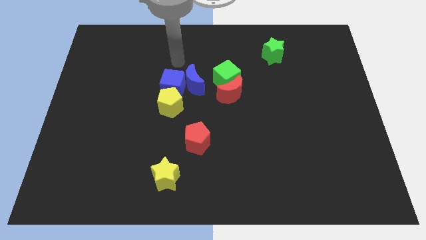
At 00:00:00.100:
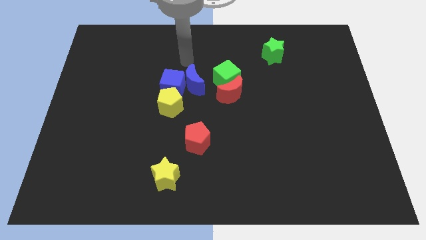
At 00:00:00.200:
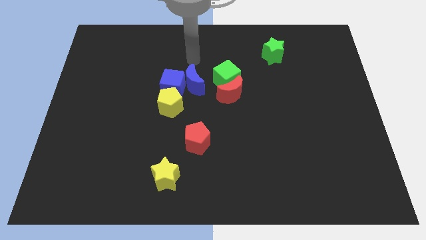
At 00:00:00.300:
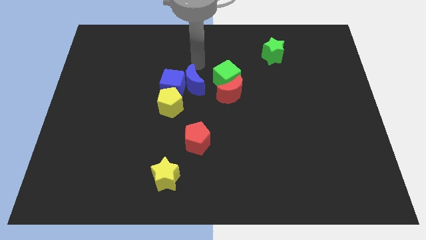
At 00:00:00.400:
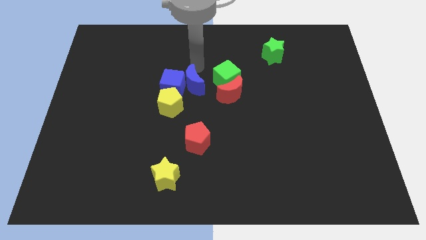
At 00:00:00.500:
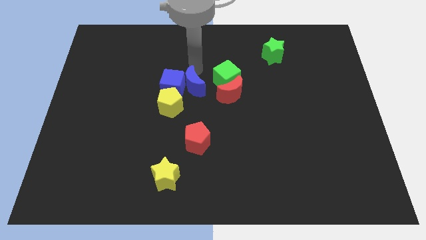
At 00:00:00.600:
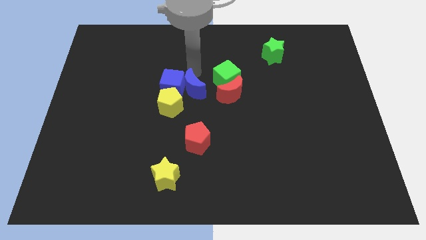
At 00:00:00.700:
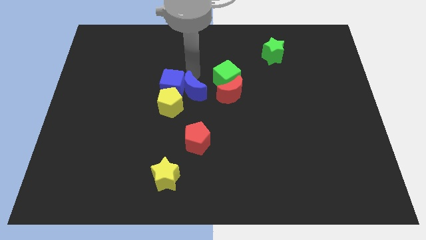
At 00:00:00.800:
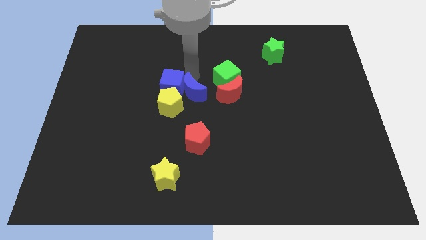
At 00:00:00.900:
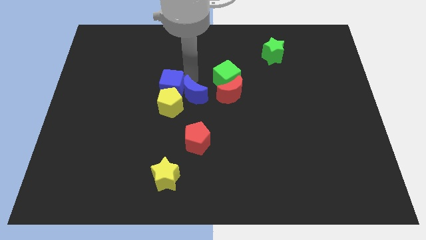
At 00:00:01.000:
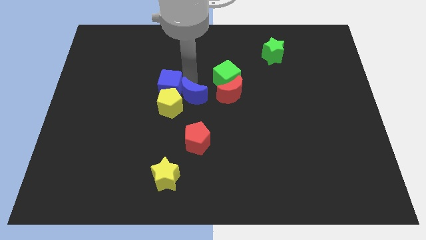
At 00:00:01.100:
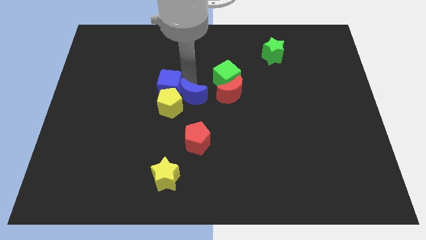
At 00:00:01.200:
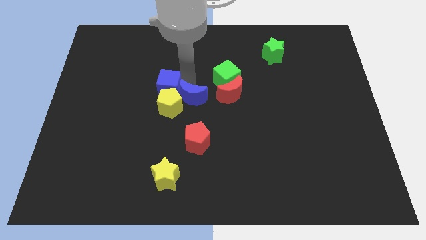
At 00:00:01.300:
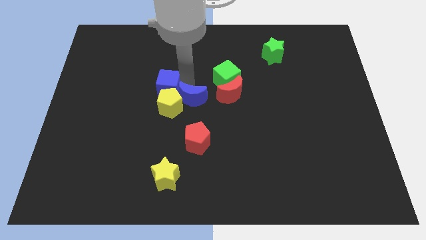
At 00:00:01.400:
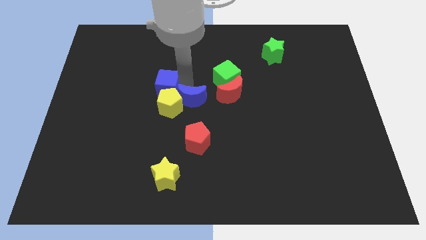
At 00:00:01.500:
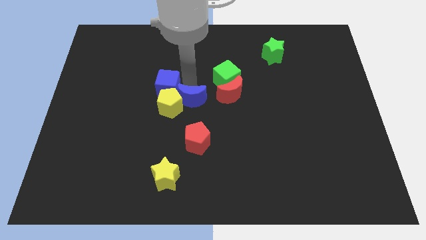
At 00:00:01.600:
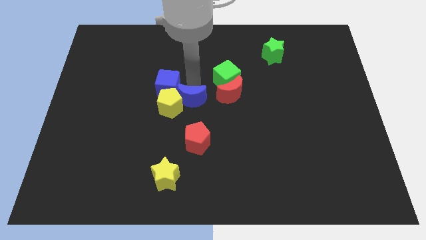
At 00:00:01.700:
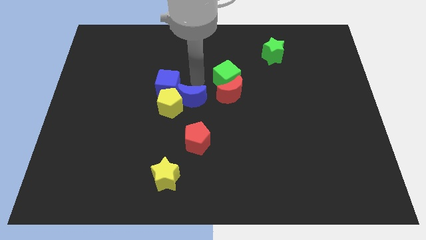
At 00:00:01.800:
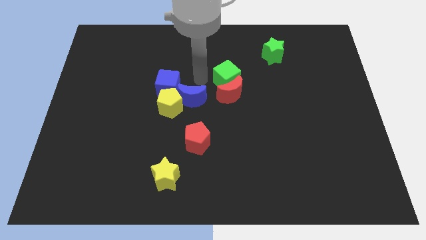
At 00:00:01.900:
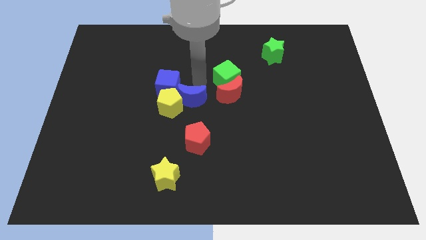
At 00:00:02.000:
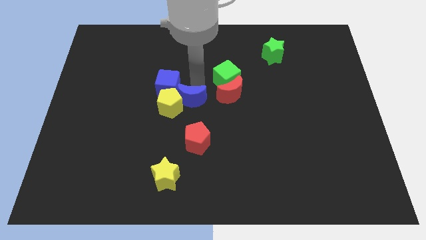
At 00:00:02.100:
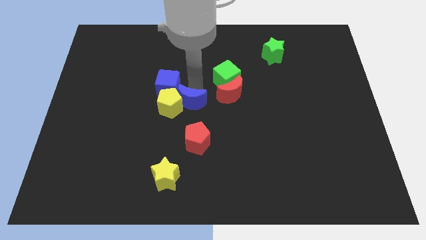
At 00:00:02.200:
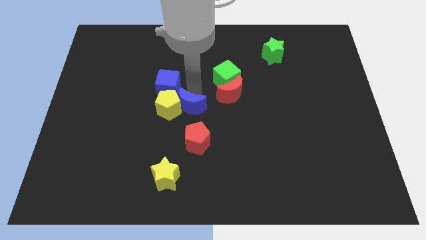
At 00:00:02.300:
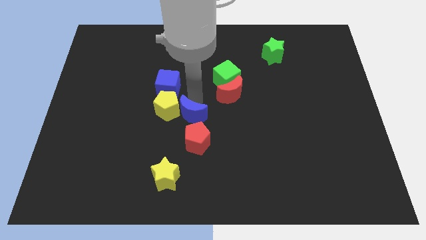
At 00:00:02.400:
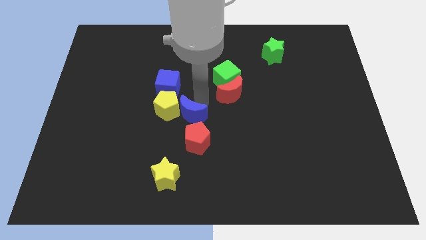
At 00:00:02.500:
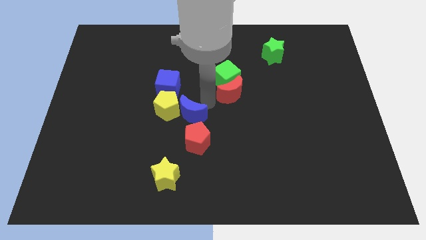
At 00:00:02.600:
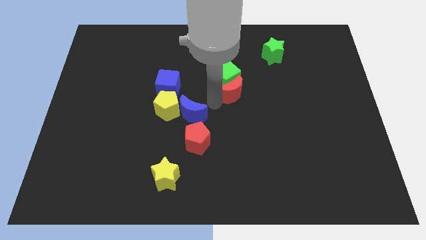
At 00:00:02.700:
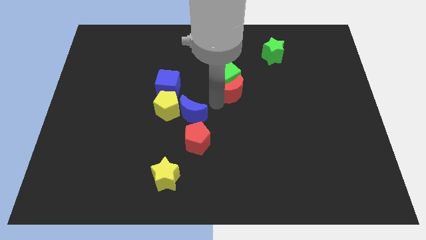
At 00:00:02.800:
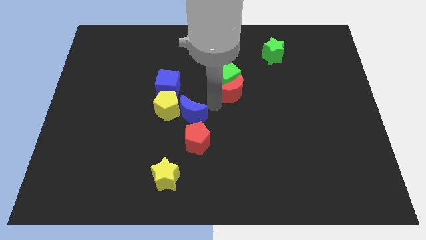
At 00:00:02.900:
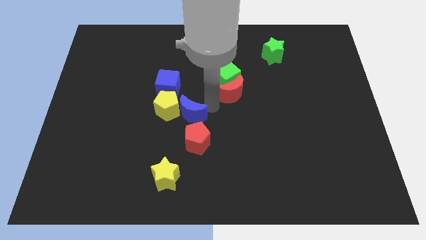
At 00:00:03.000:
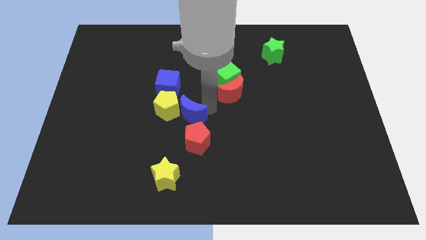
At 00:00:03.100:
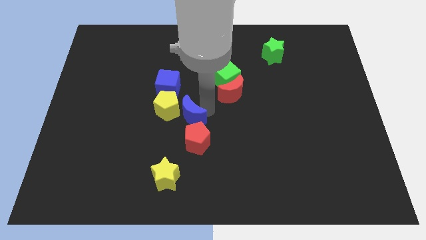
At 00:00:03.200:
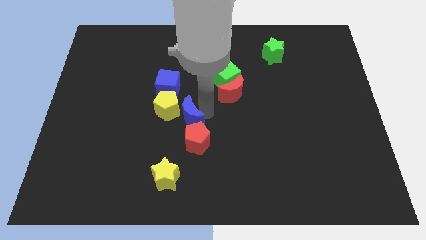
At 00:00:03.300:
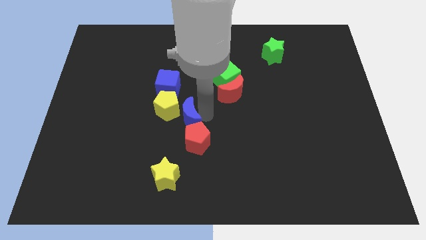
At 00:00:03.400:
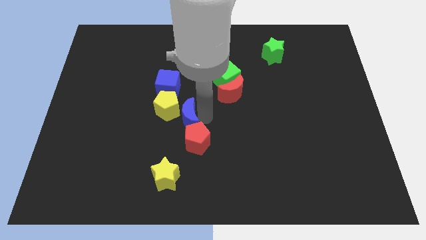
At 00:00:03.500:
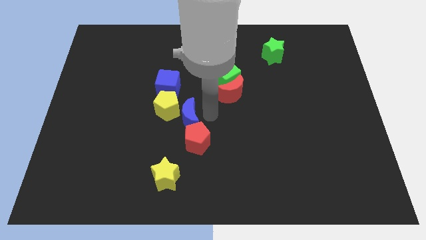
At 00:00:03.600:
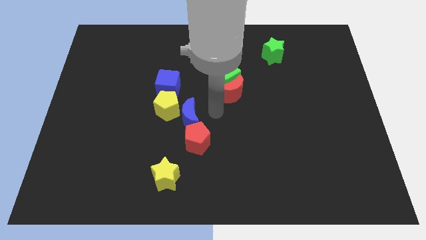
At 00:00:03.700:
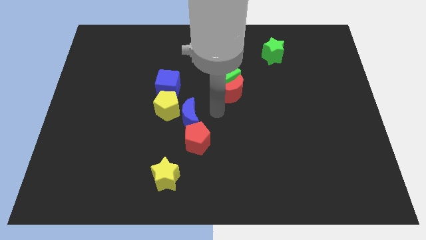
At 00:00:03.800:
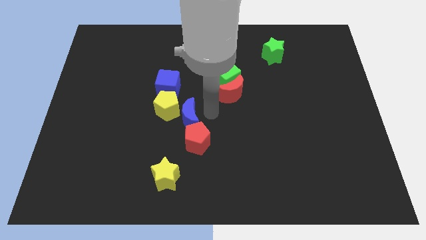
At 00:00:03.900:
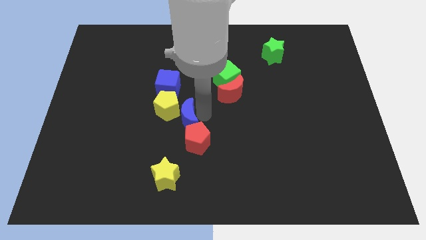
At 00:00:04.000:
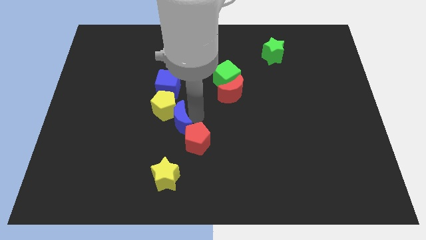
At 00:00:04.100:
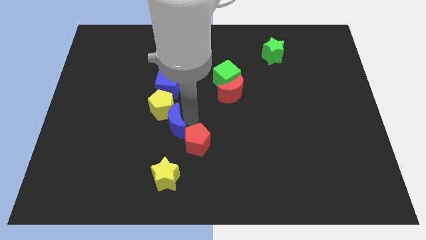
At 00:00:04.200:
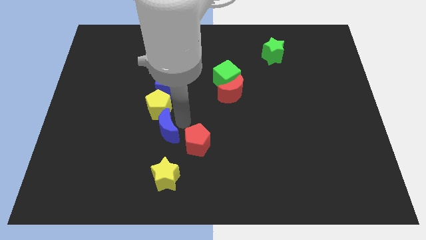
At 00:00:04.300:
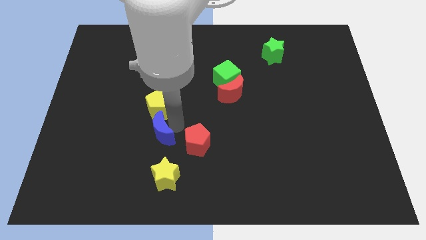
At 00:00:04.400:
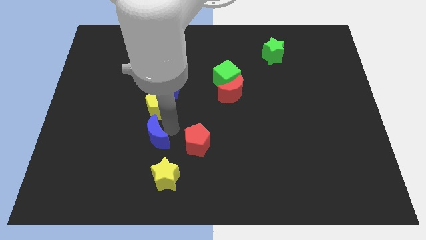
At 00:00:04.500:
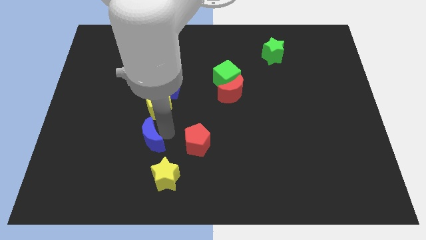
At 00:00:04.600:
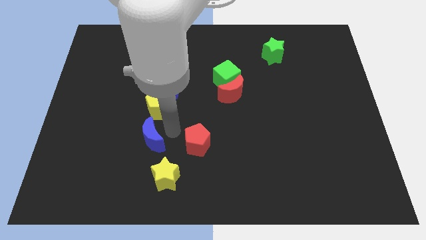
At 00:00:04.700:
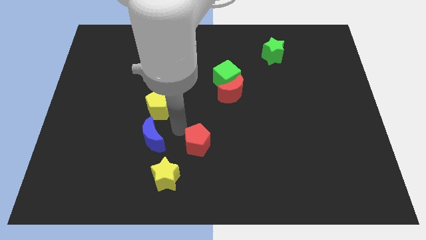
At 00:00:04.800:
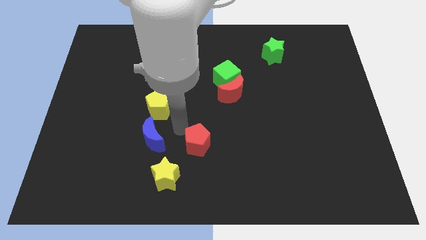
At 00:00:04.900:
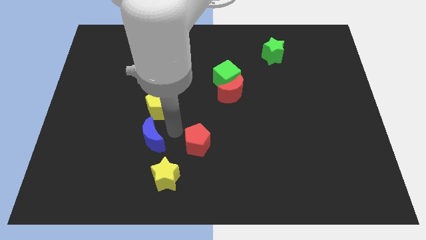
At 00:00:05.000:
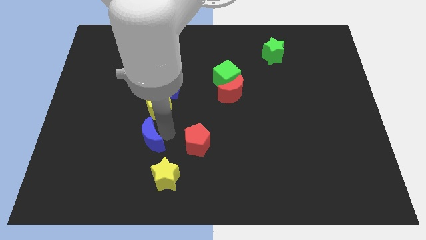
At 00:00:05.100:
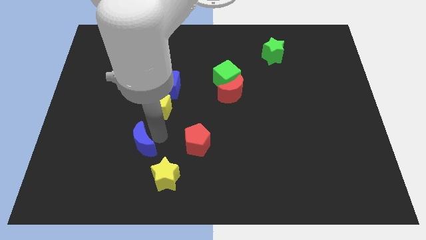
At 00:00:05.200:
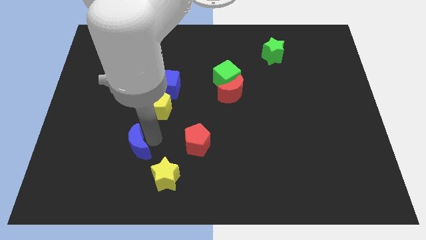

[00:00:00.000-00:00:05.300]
slide the blue moon downwards and to the left

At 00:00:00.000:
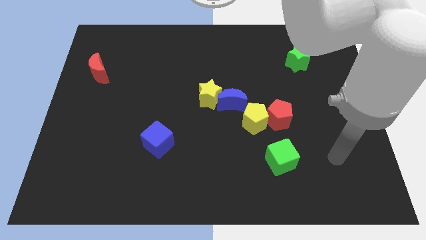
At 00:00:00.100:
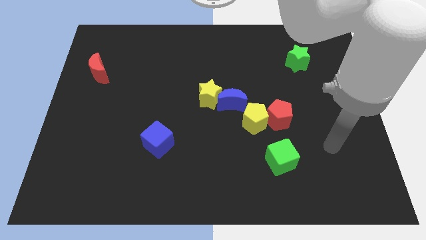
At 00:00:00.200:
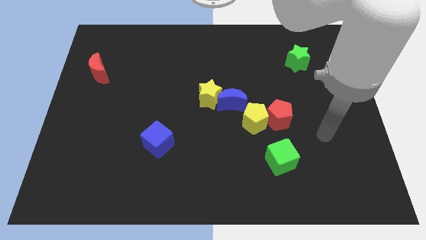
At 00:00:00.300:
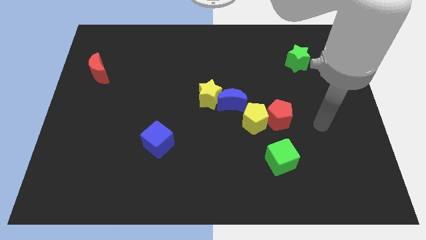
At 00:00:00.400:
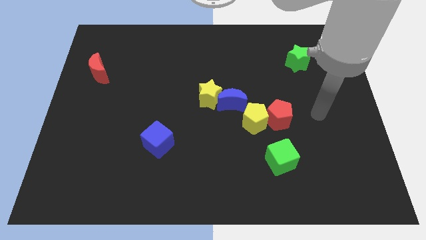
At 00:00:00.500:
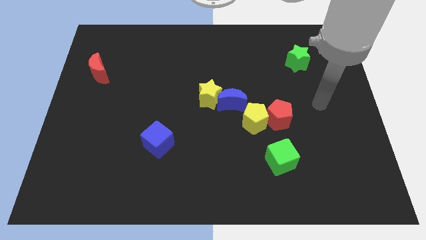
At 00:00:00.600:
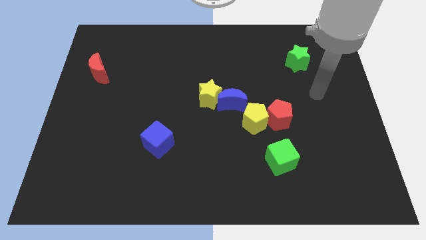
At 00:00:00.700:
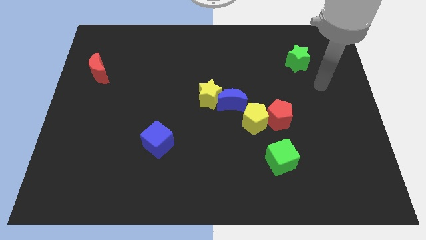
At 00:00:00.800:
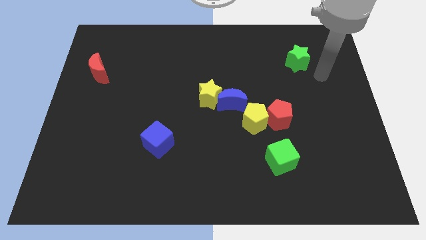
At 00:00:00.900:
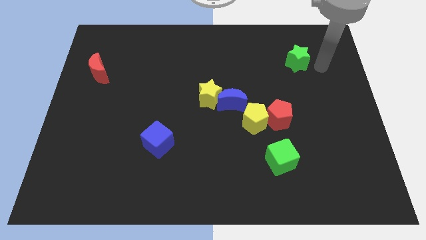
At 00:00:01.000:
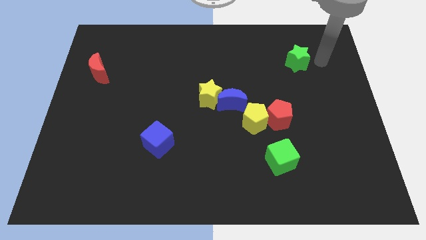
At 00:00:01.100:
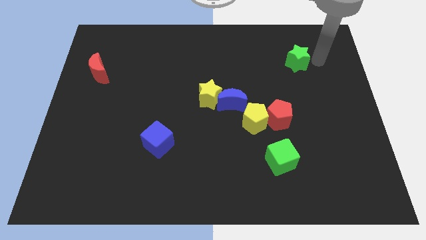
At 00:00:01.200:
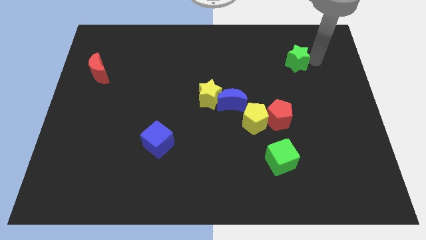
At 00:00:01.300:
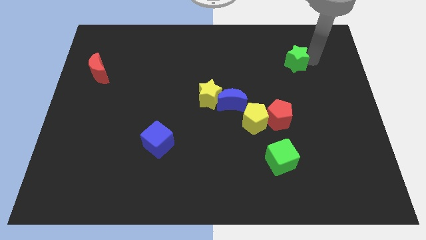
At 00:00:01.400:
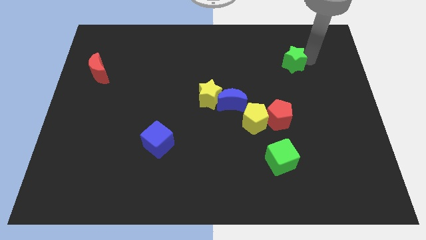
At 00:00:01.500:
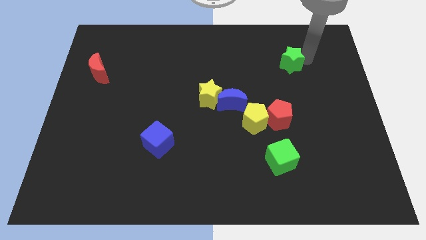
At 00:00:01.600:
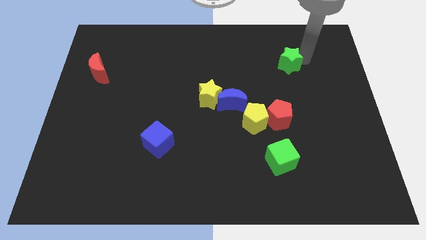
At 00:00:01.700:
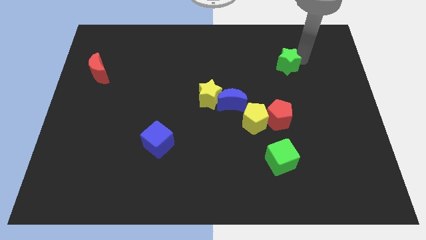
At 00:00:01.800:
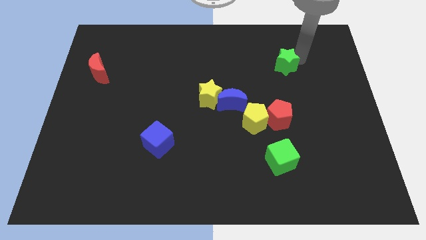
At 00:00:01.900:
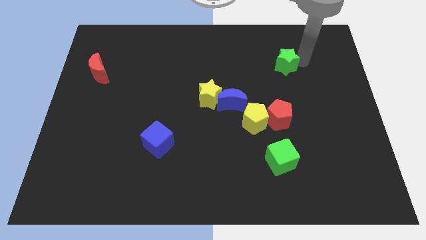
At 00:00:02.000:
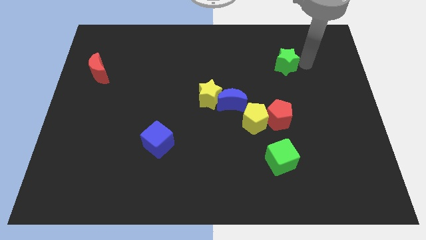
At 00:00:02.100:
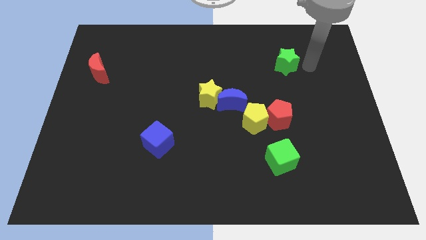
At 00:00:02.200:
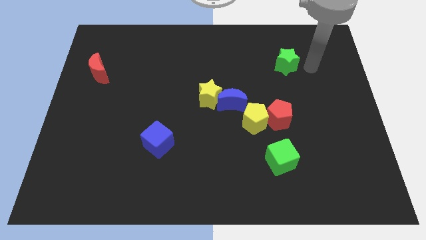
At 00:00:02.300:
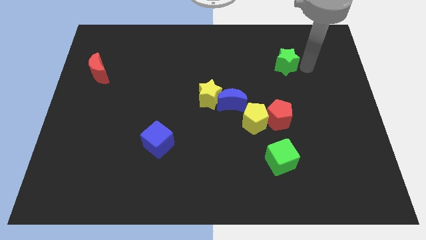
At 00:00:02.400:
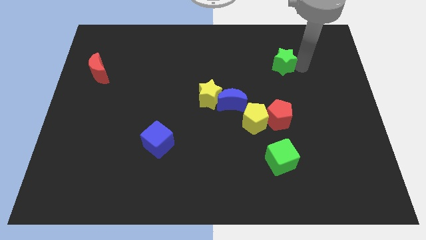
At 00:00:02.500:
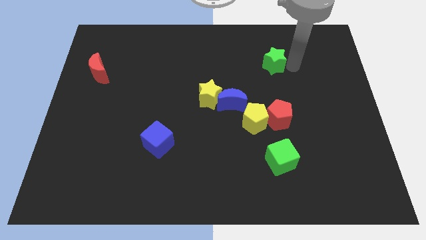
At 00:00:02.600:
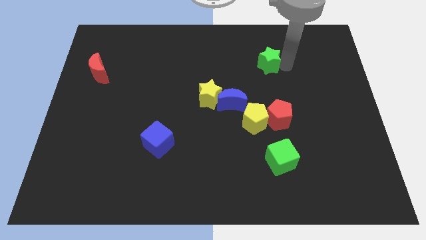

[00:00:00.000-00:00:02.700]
push the green star a little to the left
